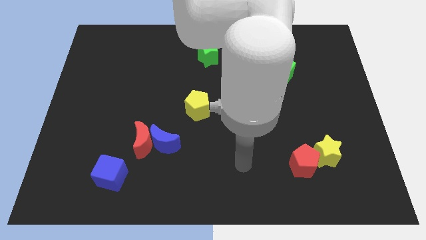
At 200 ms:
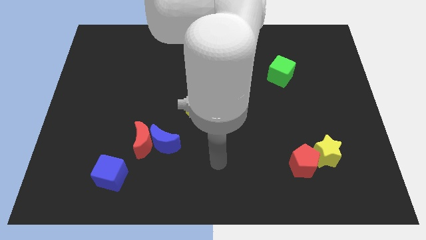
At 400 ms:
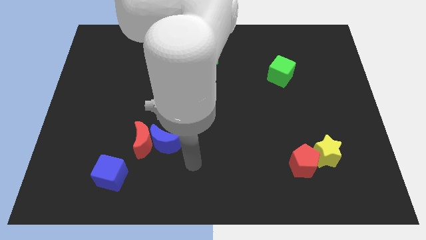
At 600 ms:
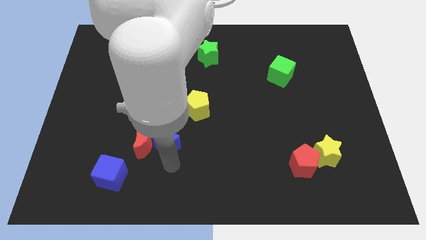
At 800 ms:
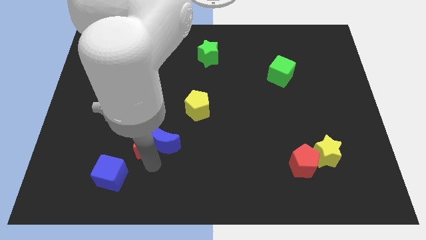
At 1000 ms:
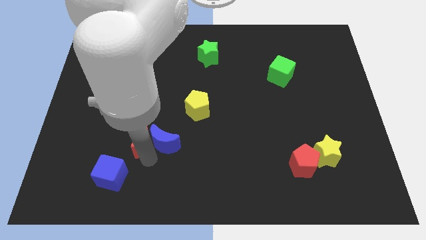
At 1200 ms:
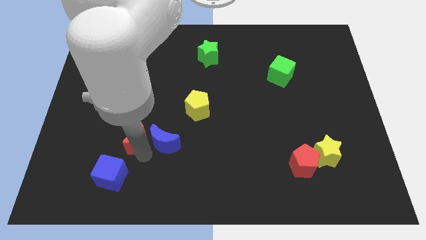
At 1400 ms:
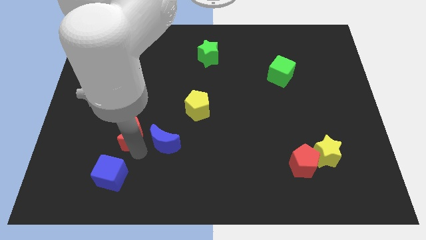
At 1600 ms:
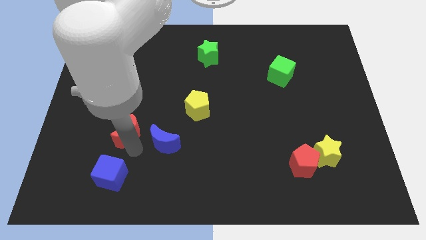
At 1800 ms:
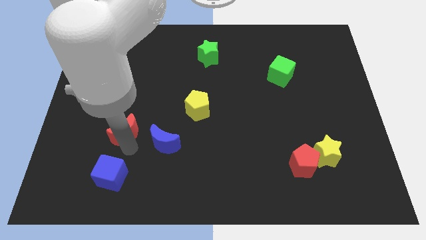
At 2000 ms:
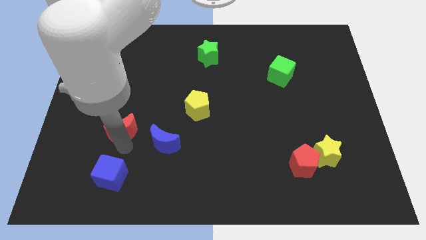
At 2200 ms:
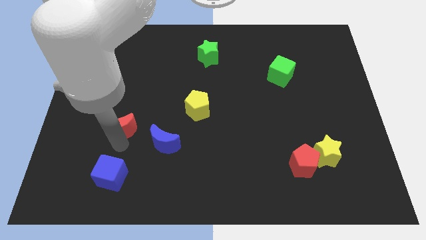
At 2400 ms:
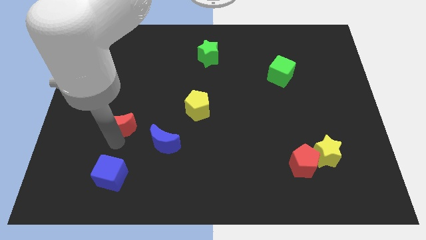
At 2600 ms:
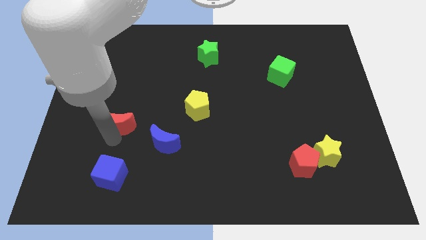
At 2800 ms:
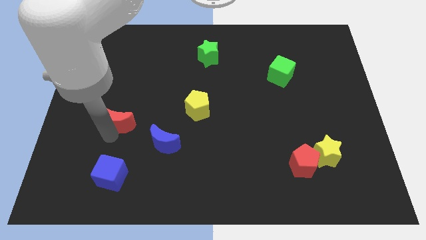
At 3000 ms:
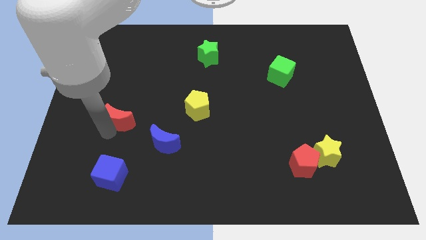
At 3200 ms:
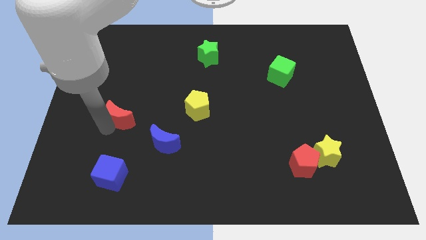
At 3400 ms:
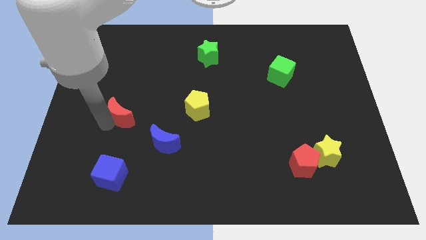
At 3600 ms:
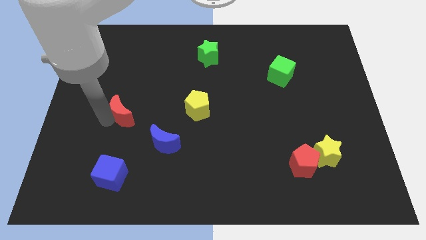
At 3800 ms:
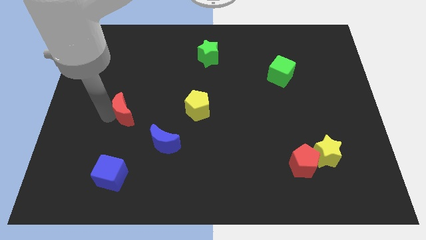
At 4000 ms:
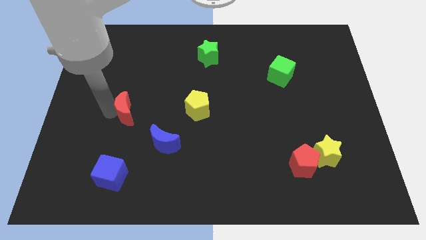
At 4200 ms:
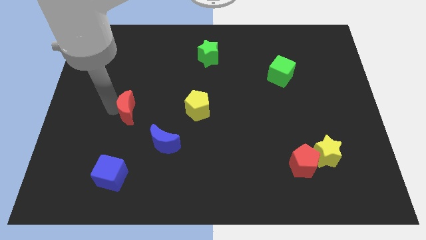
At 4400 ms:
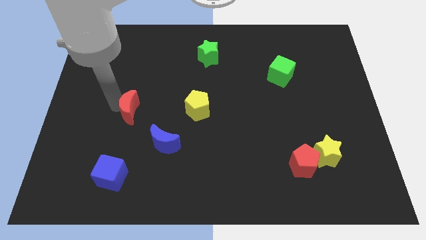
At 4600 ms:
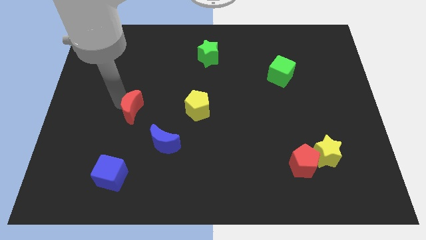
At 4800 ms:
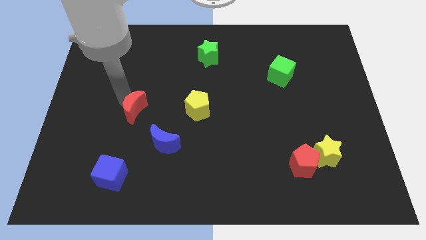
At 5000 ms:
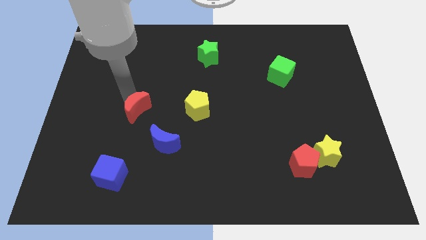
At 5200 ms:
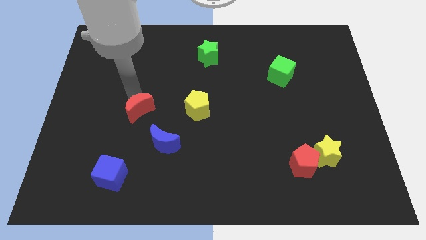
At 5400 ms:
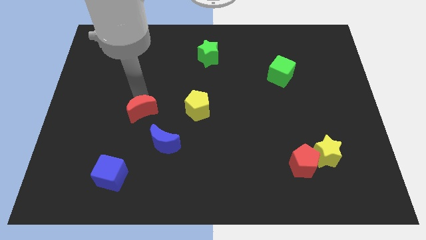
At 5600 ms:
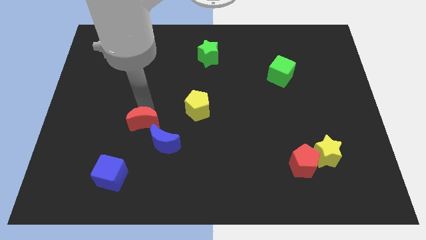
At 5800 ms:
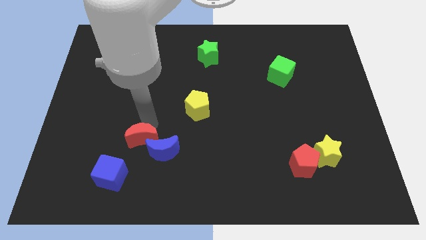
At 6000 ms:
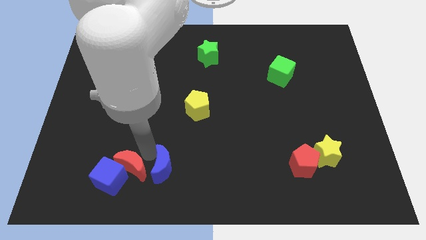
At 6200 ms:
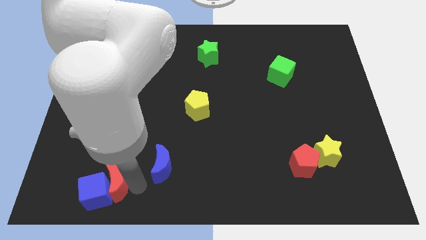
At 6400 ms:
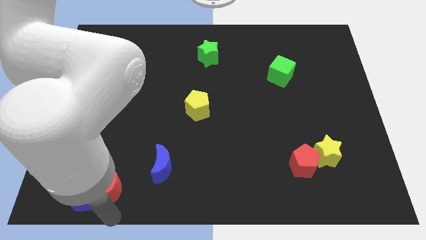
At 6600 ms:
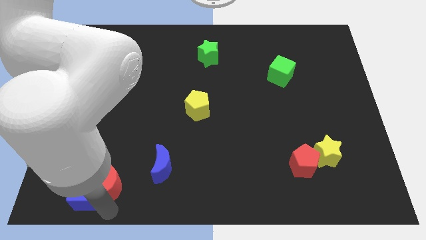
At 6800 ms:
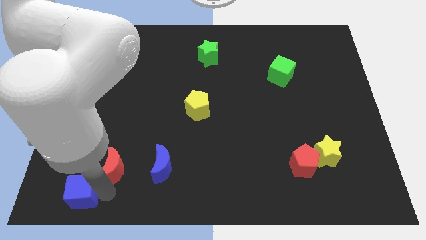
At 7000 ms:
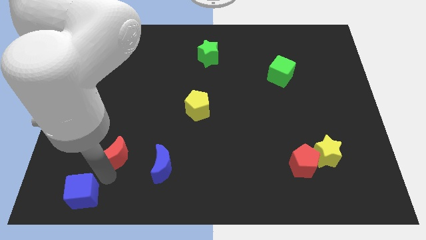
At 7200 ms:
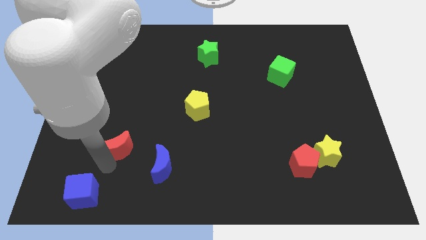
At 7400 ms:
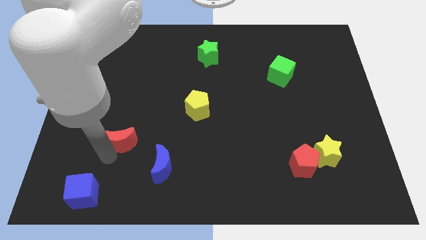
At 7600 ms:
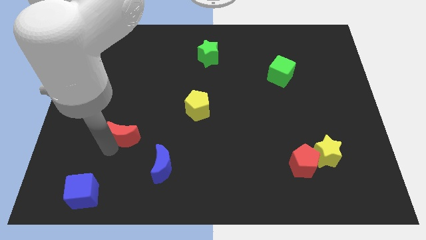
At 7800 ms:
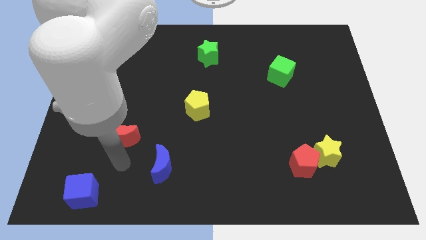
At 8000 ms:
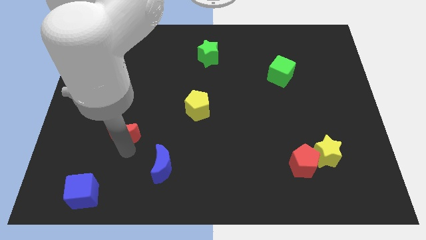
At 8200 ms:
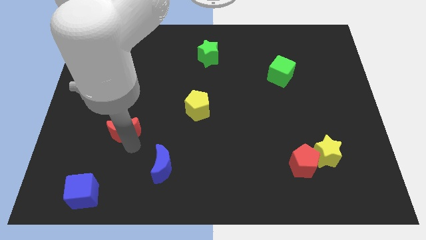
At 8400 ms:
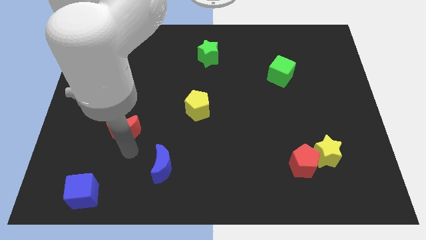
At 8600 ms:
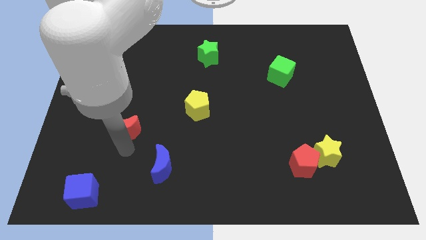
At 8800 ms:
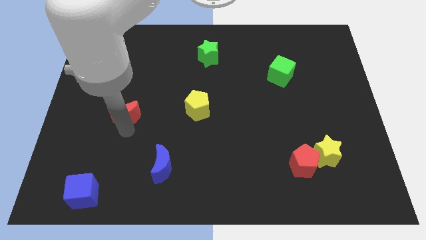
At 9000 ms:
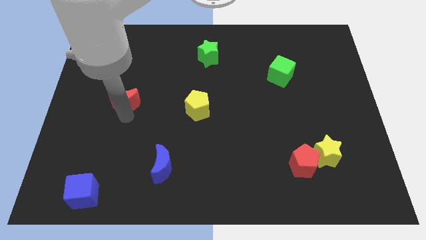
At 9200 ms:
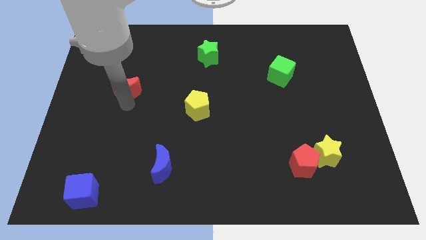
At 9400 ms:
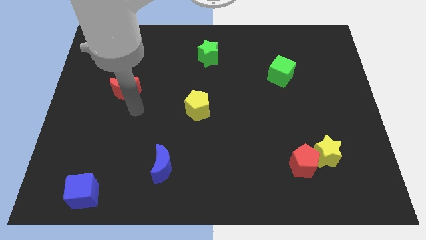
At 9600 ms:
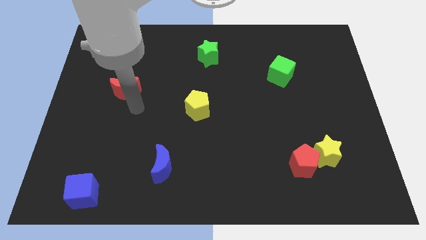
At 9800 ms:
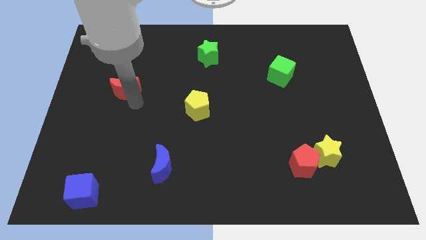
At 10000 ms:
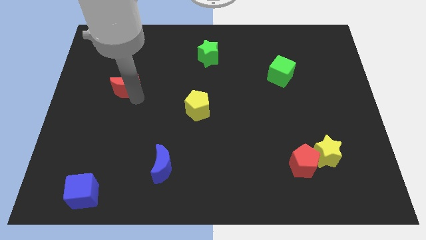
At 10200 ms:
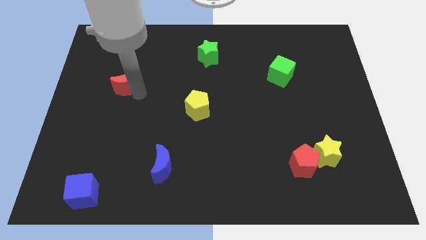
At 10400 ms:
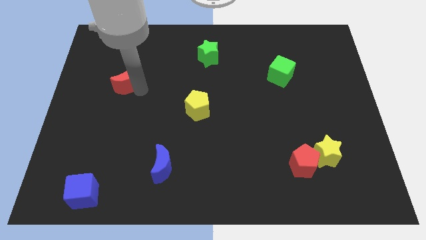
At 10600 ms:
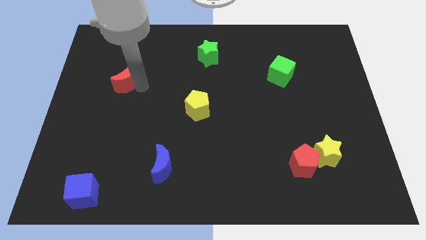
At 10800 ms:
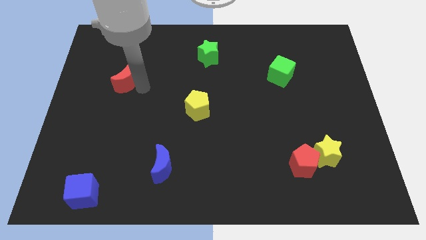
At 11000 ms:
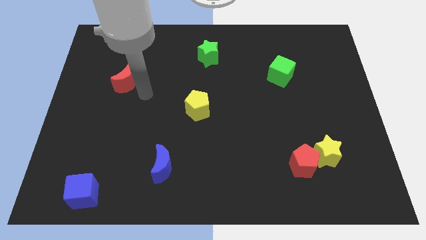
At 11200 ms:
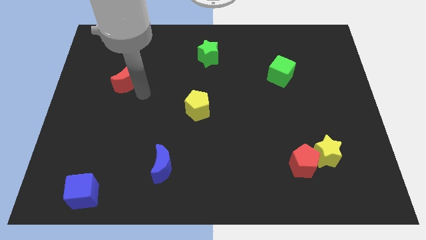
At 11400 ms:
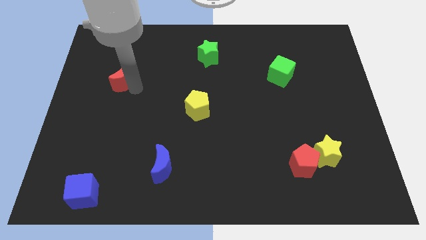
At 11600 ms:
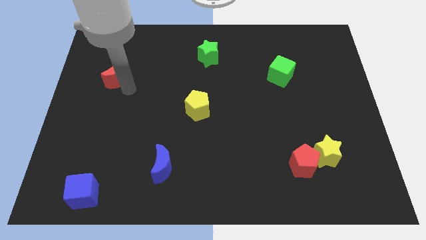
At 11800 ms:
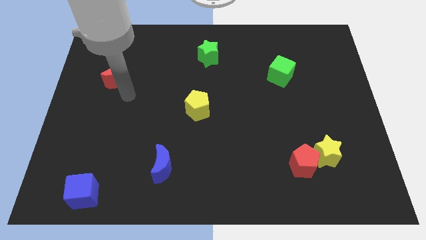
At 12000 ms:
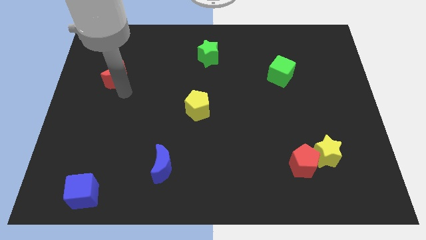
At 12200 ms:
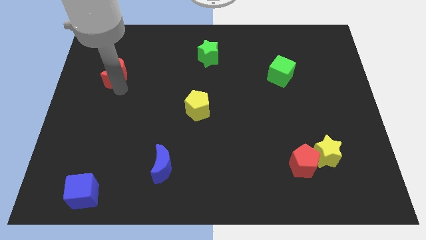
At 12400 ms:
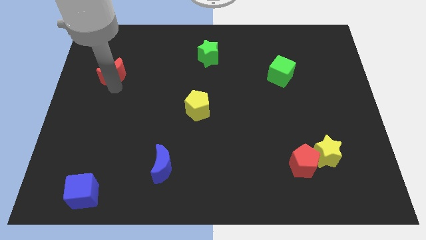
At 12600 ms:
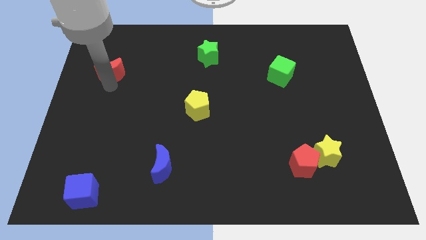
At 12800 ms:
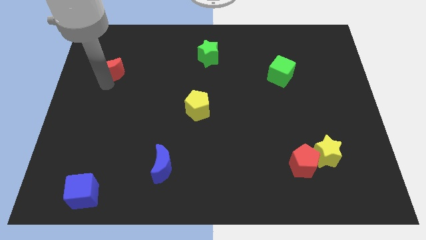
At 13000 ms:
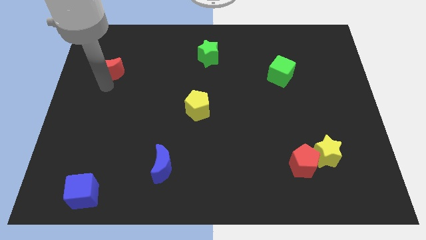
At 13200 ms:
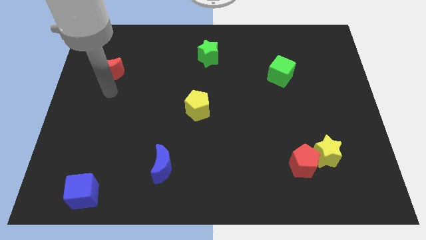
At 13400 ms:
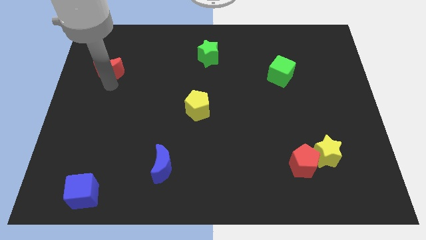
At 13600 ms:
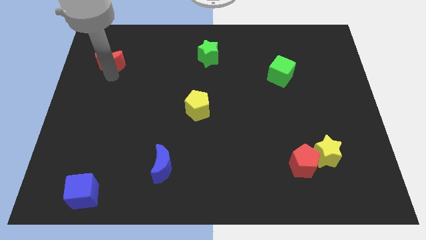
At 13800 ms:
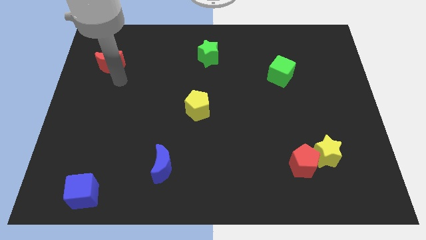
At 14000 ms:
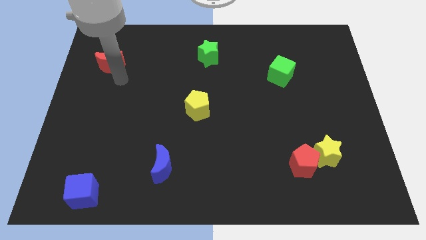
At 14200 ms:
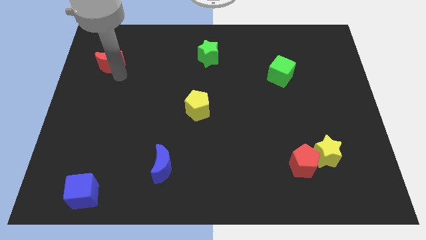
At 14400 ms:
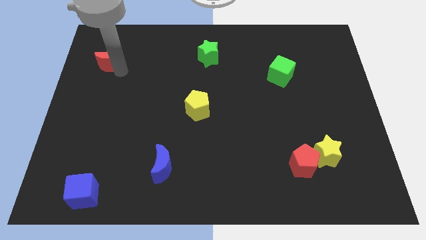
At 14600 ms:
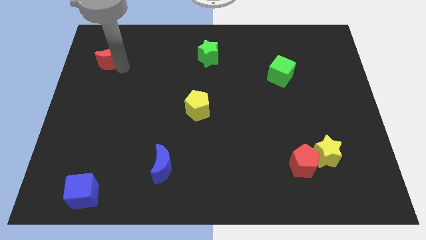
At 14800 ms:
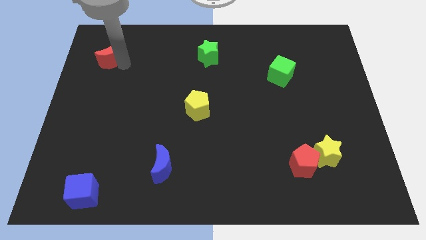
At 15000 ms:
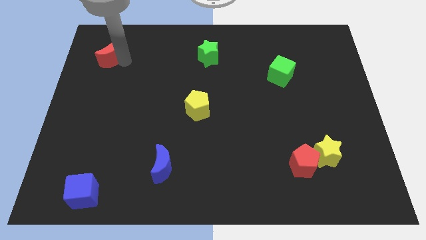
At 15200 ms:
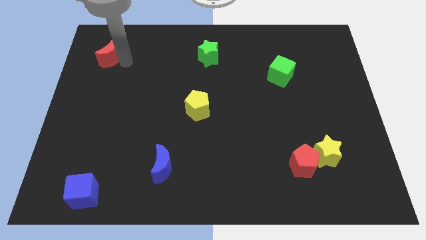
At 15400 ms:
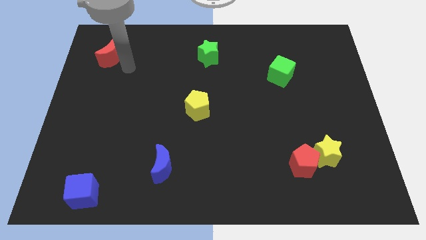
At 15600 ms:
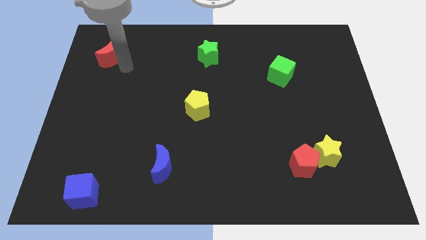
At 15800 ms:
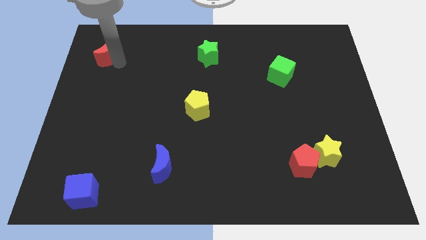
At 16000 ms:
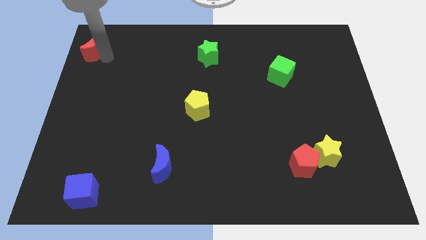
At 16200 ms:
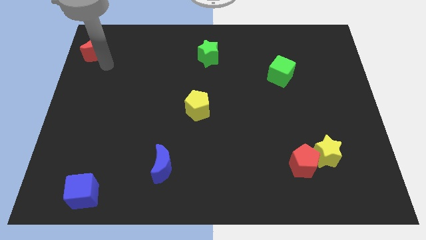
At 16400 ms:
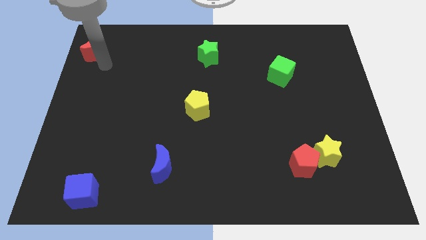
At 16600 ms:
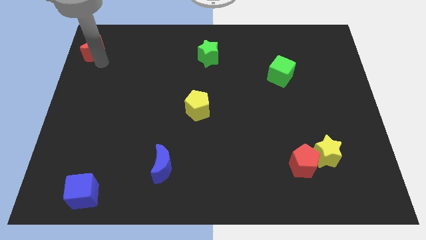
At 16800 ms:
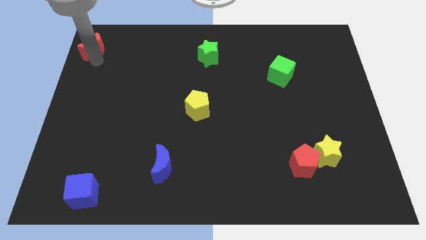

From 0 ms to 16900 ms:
put the red moon to the top left of the board
